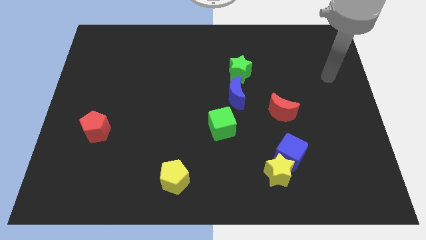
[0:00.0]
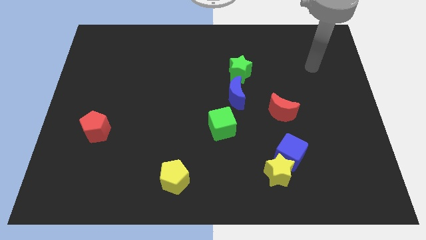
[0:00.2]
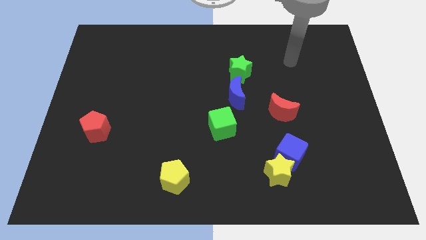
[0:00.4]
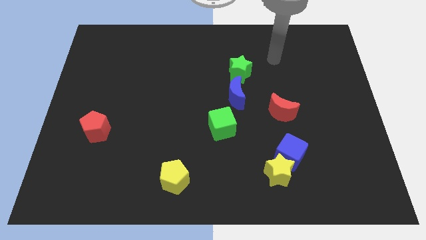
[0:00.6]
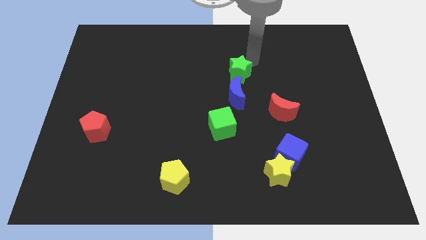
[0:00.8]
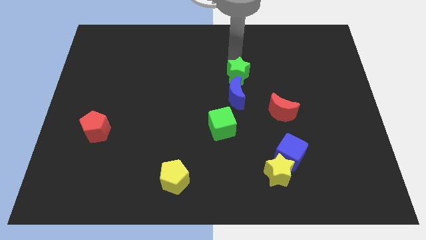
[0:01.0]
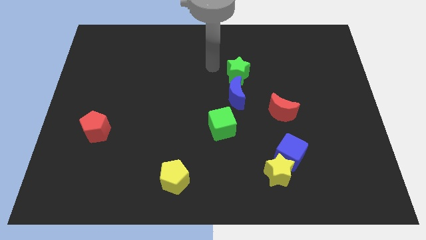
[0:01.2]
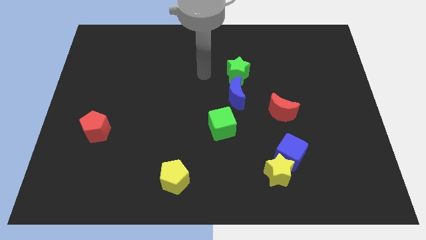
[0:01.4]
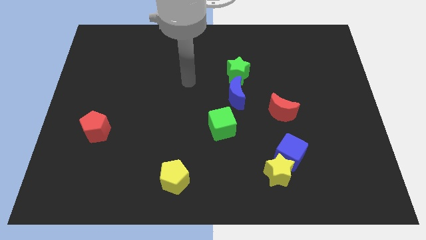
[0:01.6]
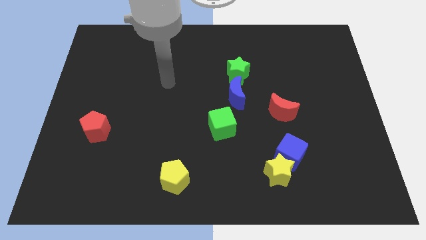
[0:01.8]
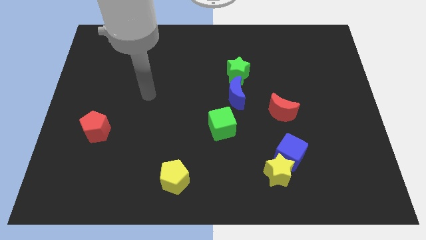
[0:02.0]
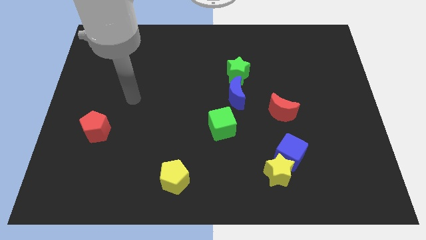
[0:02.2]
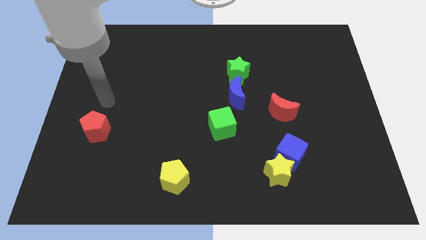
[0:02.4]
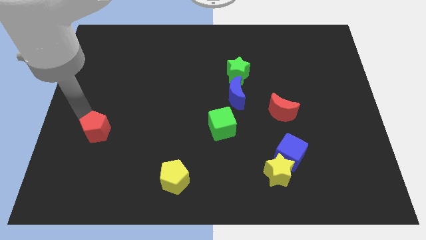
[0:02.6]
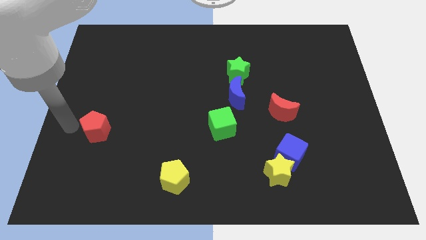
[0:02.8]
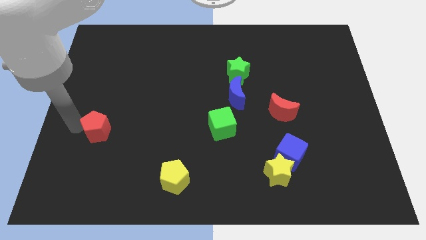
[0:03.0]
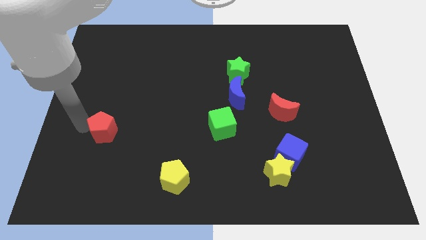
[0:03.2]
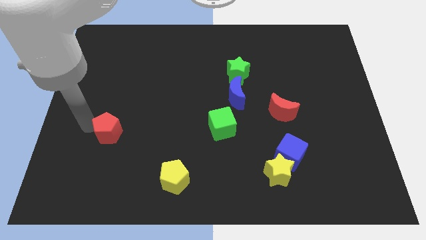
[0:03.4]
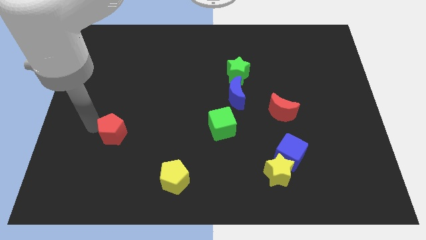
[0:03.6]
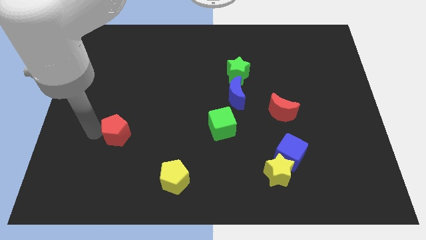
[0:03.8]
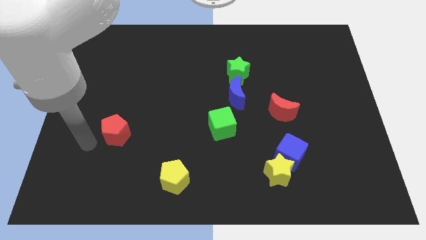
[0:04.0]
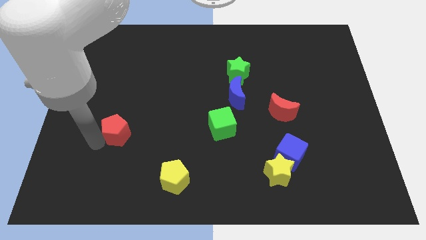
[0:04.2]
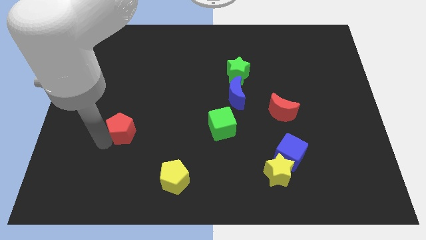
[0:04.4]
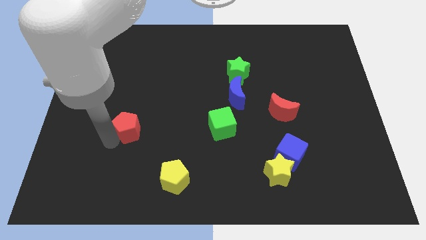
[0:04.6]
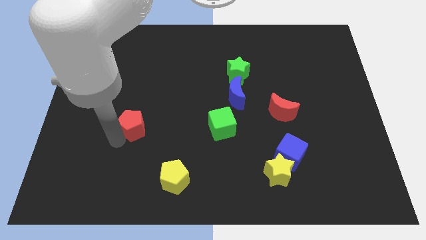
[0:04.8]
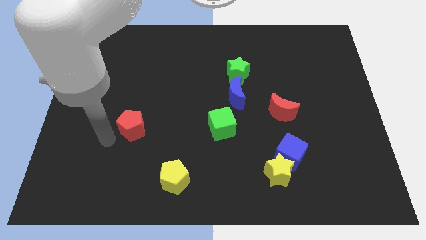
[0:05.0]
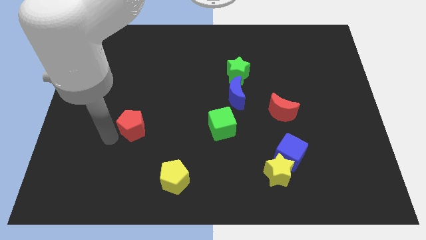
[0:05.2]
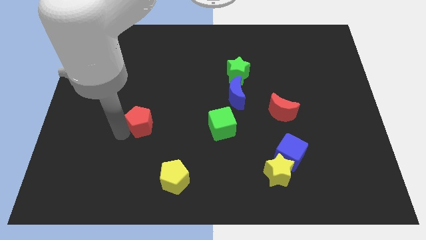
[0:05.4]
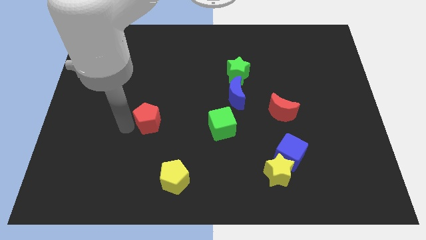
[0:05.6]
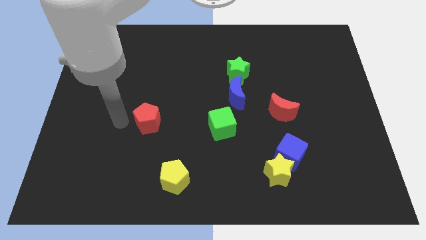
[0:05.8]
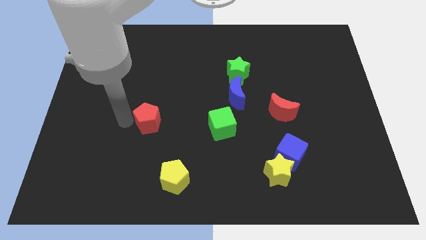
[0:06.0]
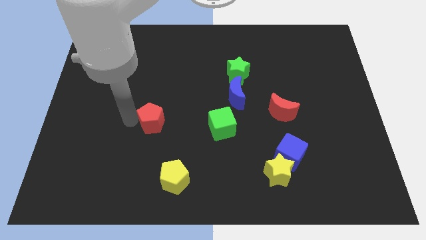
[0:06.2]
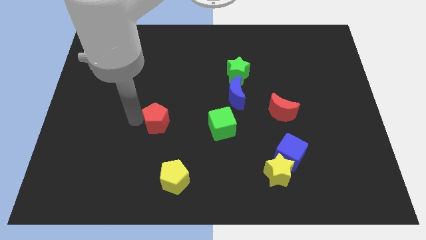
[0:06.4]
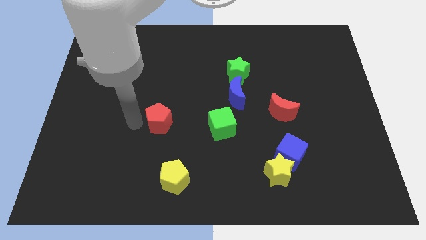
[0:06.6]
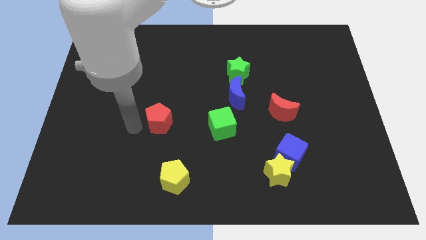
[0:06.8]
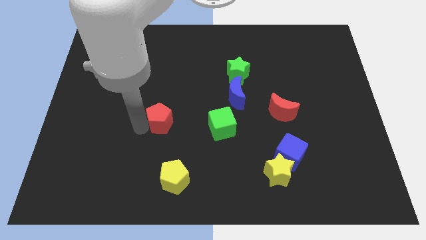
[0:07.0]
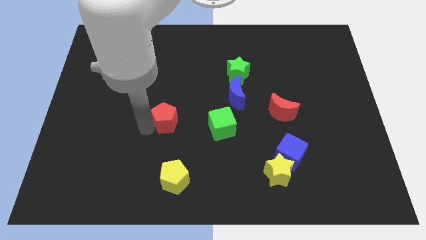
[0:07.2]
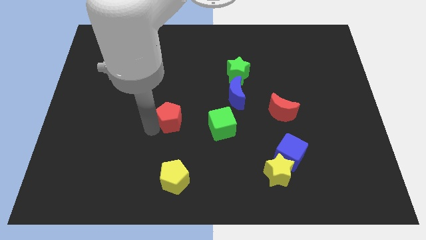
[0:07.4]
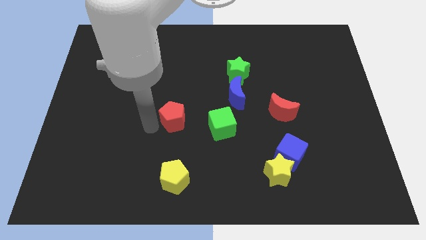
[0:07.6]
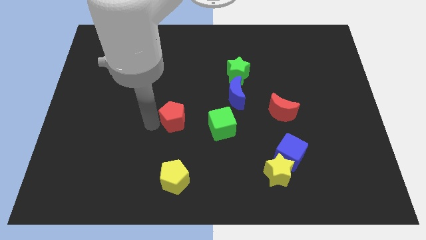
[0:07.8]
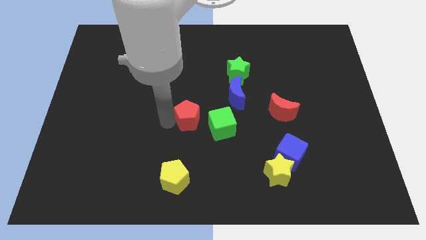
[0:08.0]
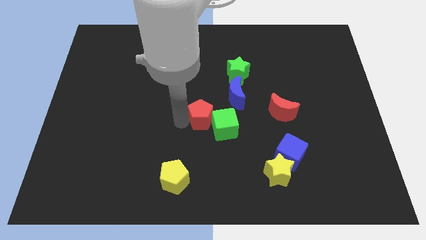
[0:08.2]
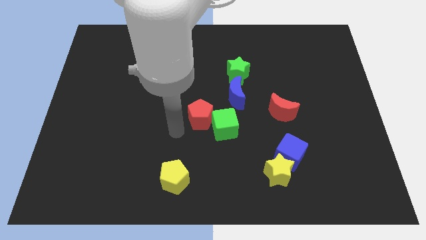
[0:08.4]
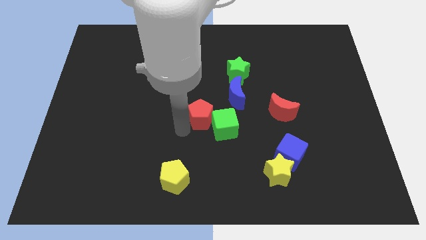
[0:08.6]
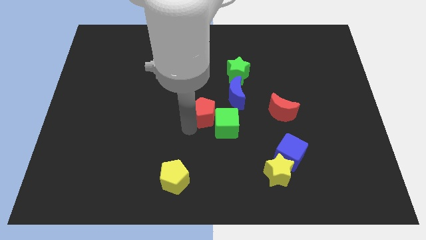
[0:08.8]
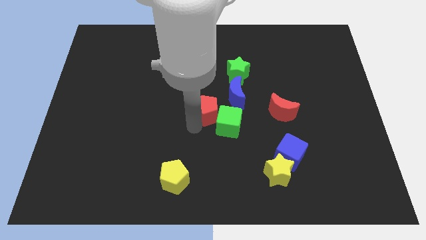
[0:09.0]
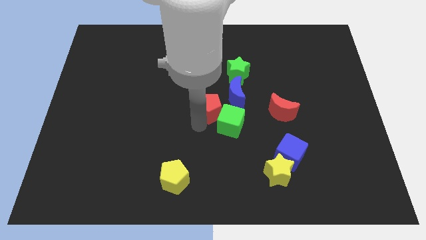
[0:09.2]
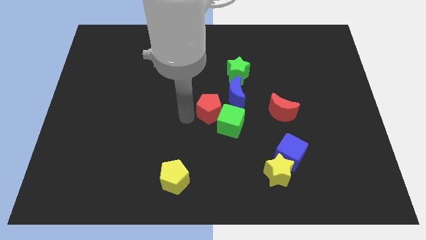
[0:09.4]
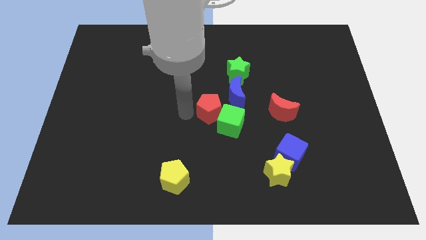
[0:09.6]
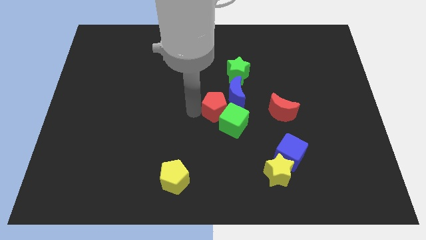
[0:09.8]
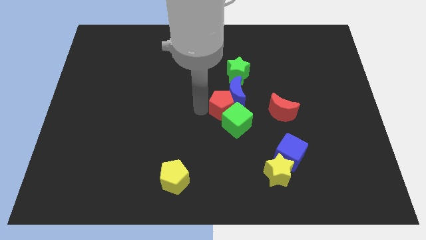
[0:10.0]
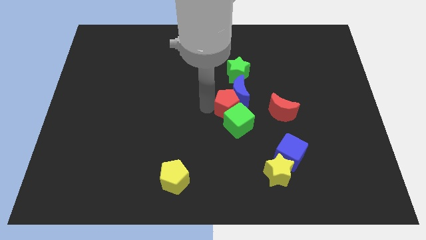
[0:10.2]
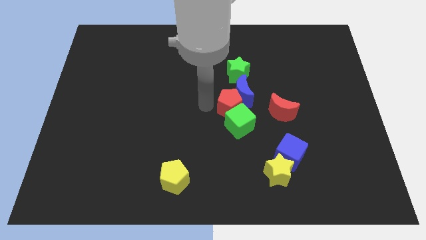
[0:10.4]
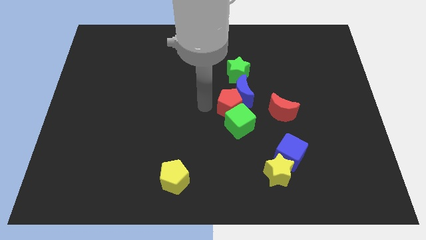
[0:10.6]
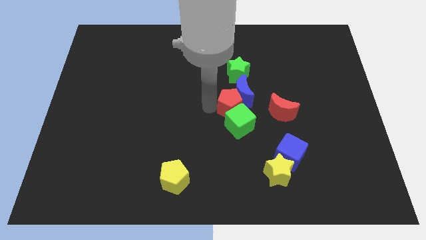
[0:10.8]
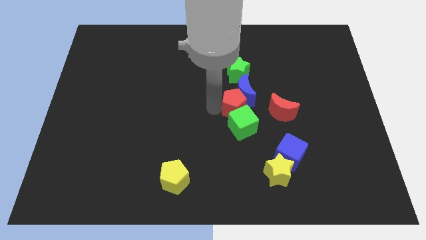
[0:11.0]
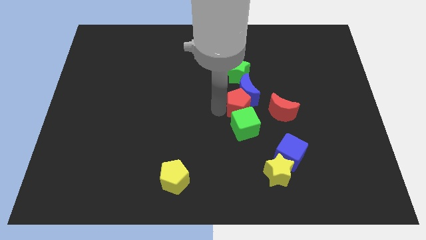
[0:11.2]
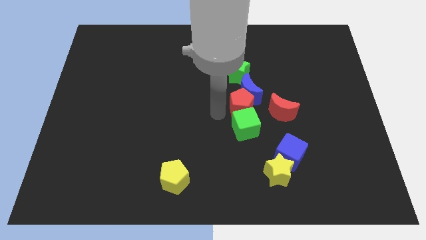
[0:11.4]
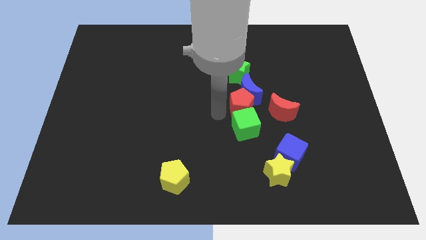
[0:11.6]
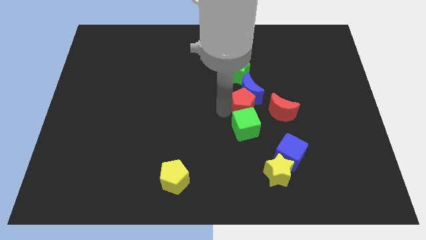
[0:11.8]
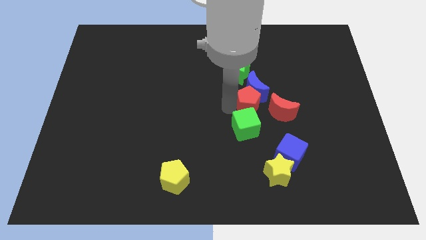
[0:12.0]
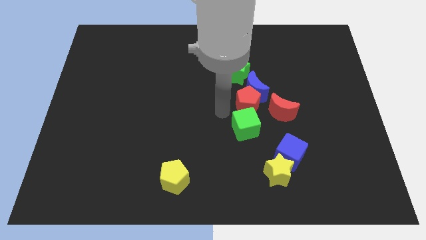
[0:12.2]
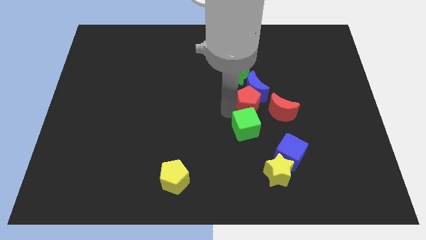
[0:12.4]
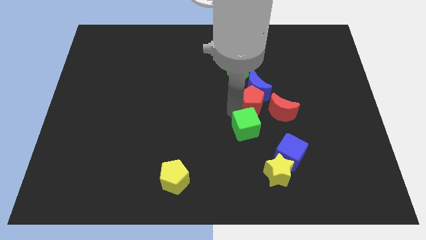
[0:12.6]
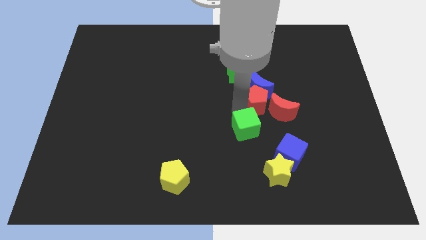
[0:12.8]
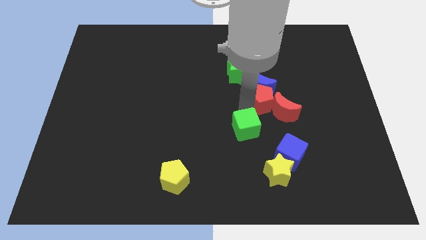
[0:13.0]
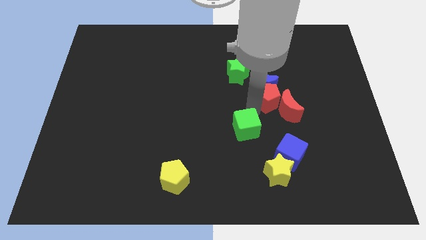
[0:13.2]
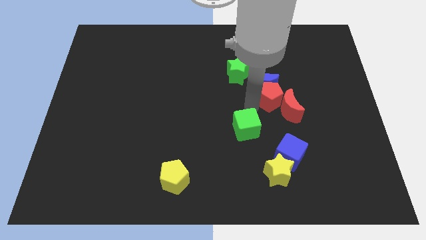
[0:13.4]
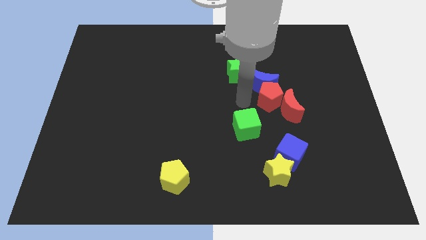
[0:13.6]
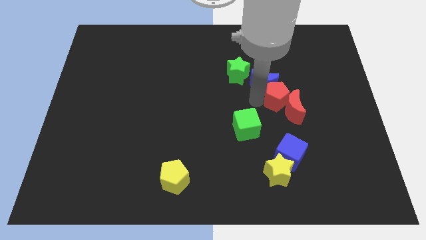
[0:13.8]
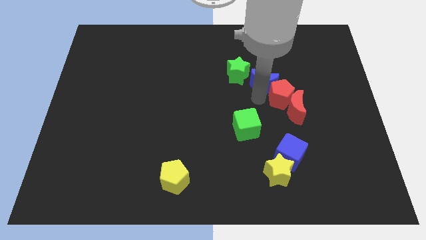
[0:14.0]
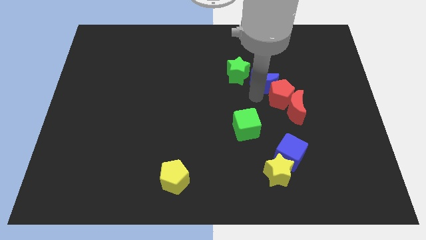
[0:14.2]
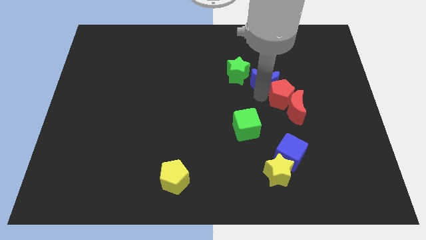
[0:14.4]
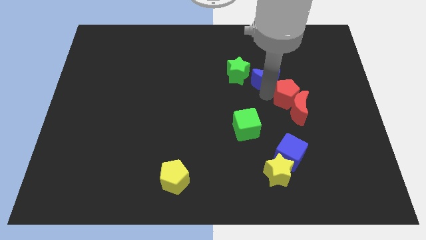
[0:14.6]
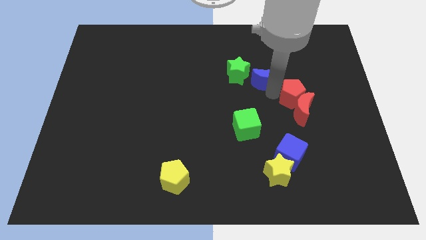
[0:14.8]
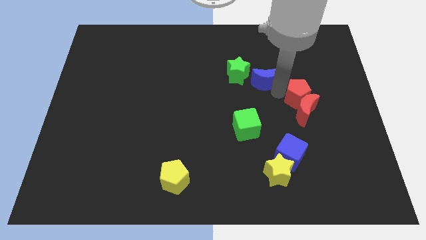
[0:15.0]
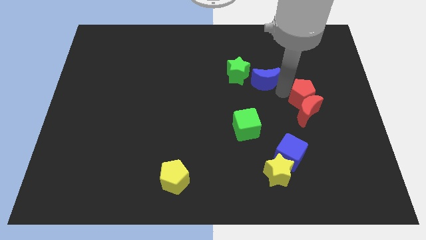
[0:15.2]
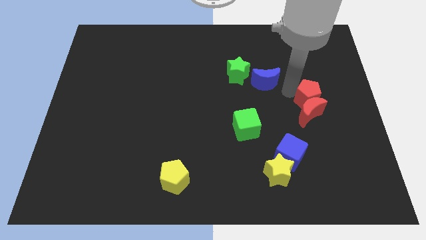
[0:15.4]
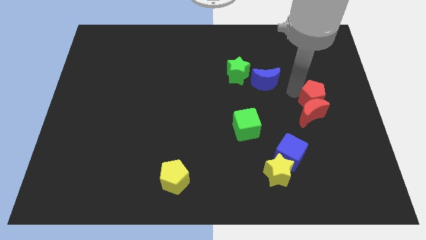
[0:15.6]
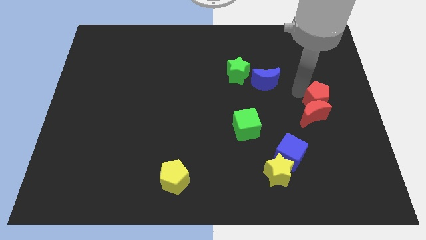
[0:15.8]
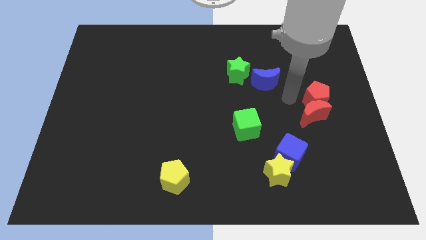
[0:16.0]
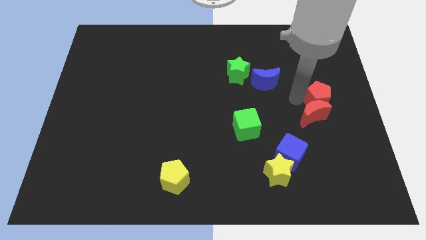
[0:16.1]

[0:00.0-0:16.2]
put the red pentagon to the right side
